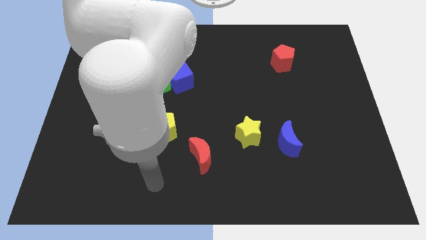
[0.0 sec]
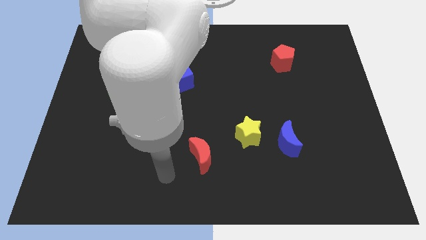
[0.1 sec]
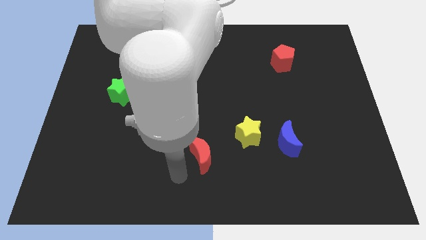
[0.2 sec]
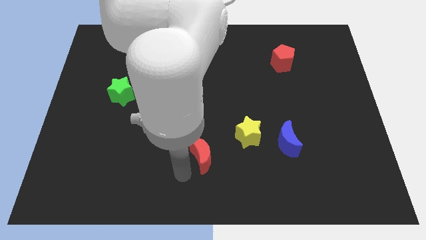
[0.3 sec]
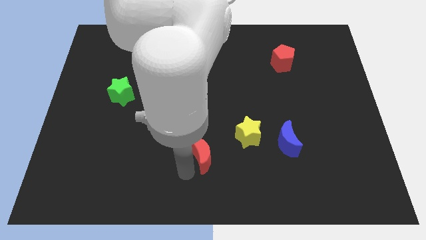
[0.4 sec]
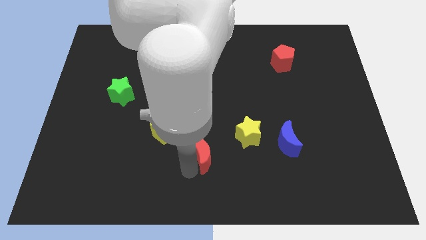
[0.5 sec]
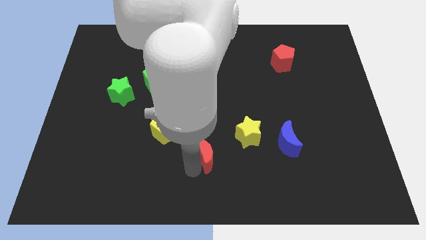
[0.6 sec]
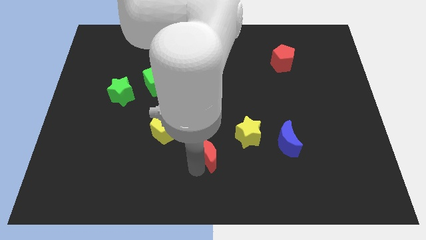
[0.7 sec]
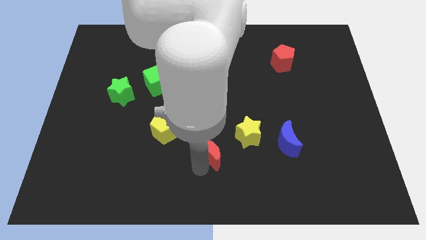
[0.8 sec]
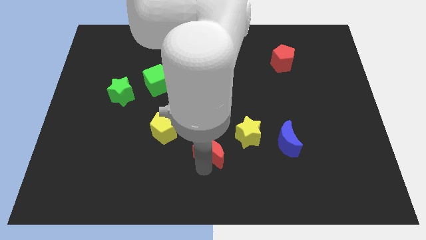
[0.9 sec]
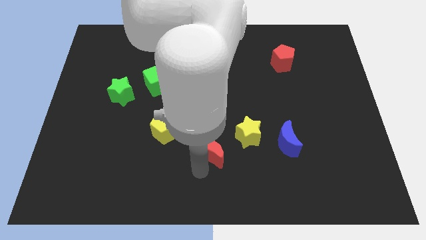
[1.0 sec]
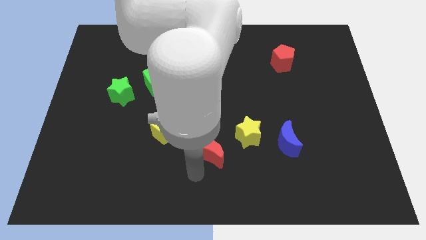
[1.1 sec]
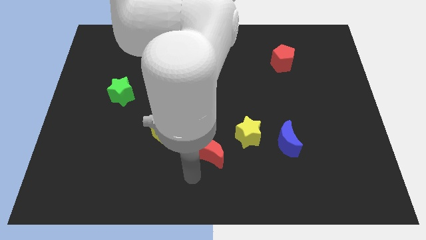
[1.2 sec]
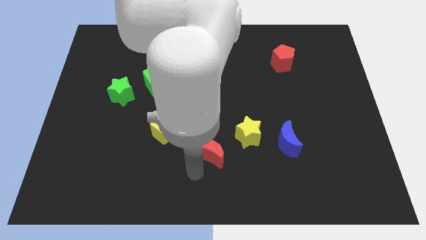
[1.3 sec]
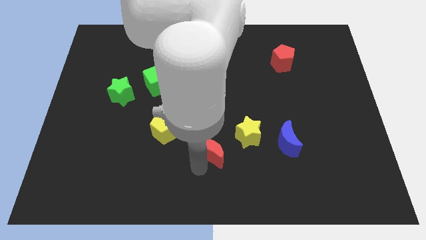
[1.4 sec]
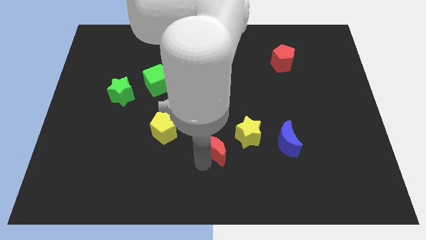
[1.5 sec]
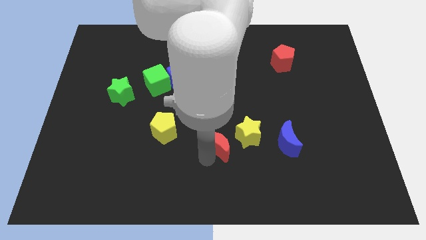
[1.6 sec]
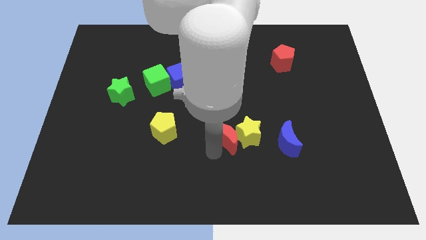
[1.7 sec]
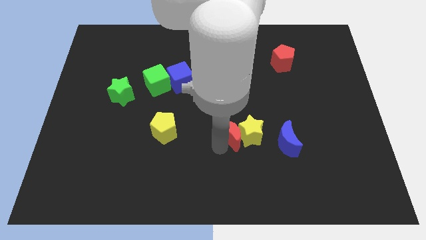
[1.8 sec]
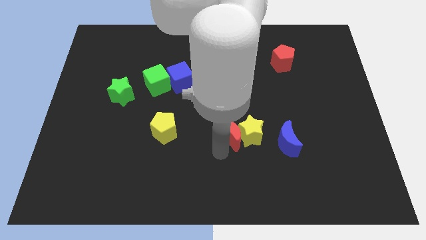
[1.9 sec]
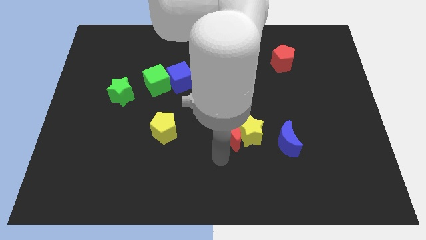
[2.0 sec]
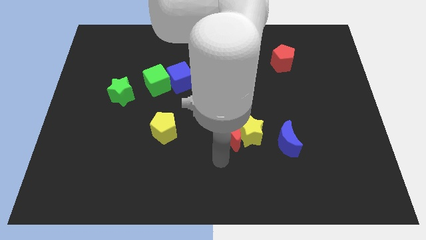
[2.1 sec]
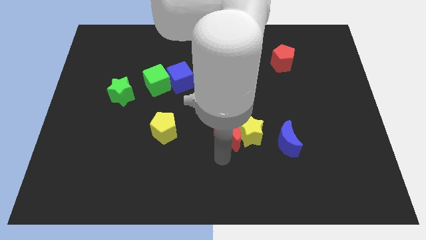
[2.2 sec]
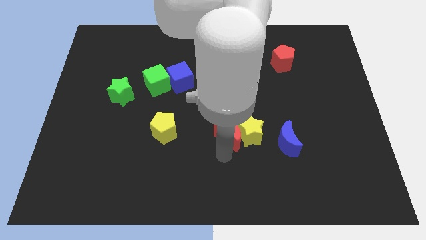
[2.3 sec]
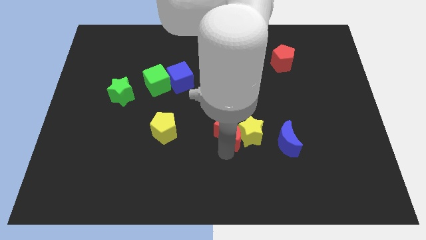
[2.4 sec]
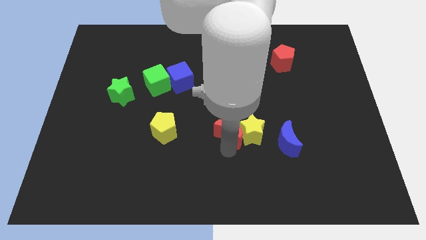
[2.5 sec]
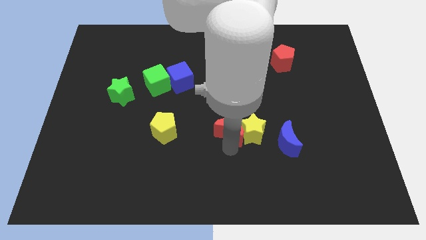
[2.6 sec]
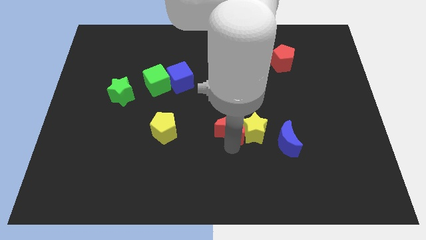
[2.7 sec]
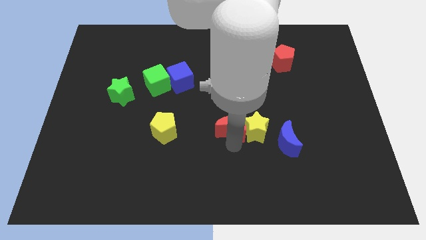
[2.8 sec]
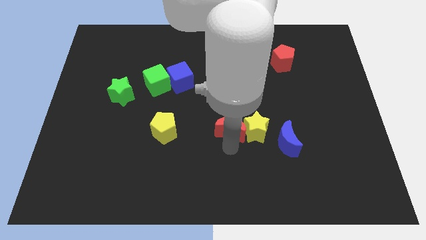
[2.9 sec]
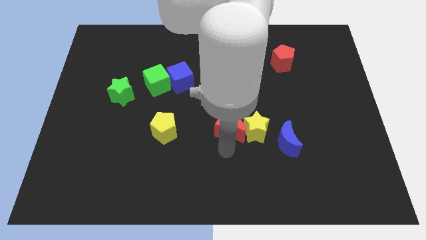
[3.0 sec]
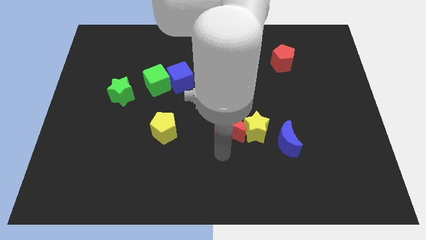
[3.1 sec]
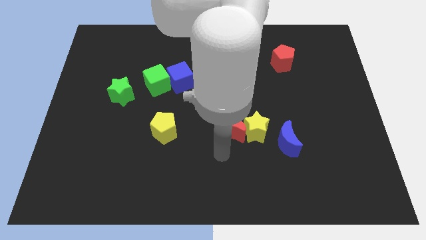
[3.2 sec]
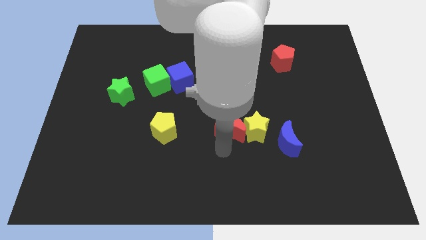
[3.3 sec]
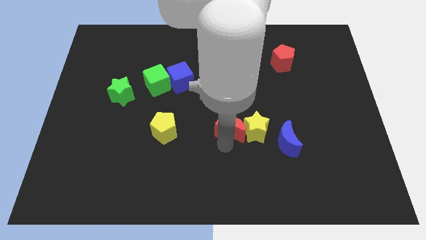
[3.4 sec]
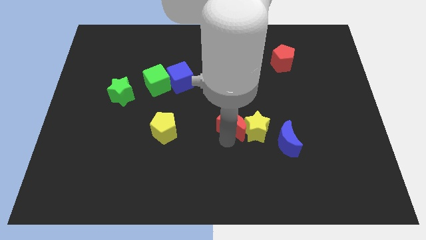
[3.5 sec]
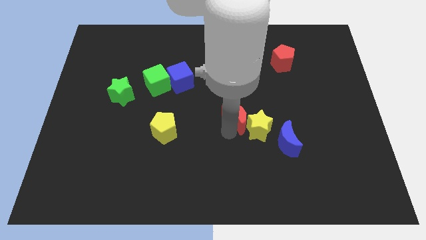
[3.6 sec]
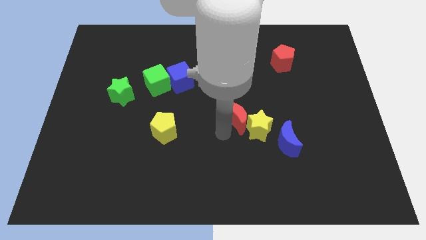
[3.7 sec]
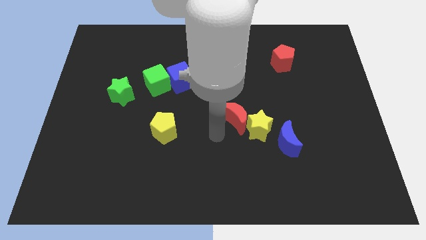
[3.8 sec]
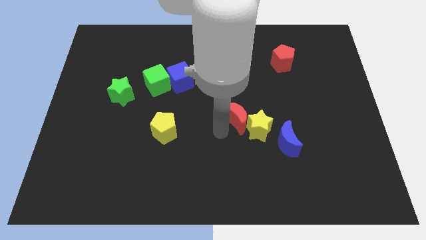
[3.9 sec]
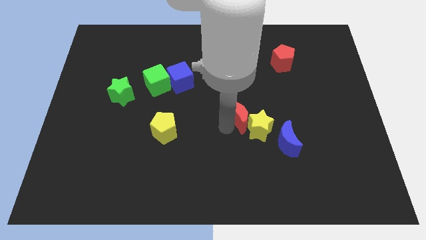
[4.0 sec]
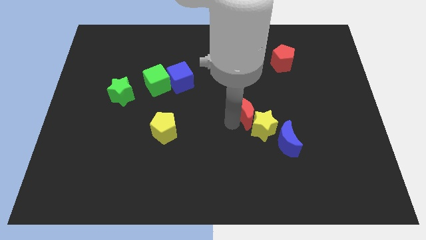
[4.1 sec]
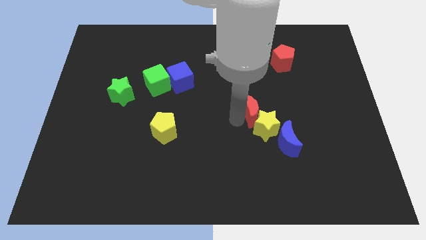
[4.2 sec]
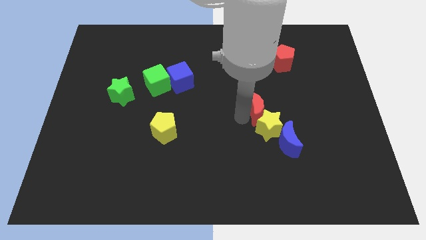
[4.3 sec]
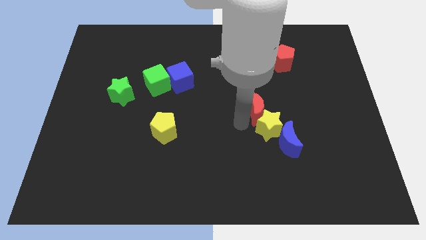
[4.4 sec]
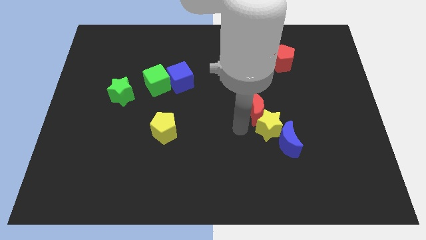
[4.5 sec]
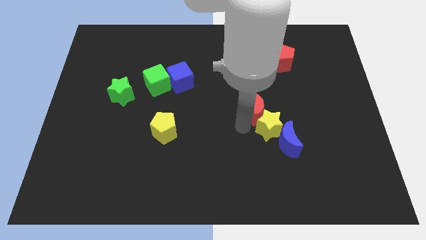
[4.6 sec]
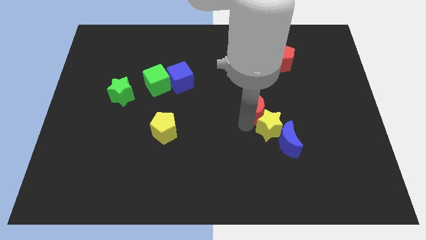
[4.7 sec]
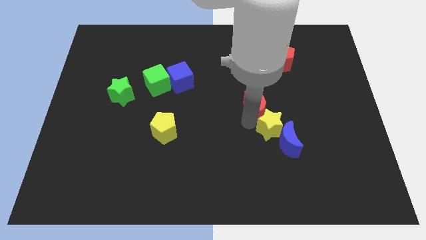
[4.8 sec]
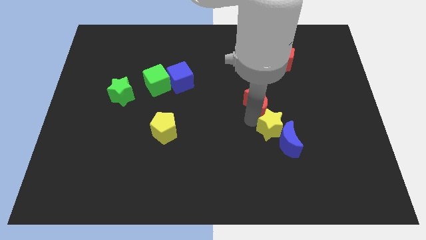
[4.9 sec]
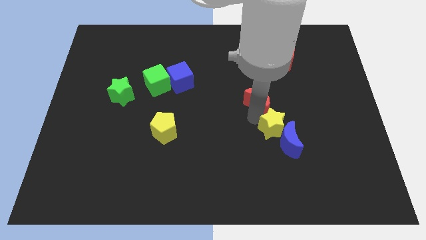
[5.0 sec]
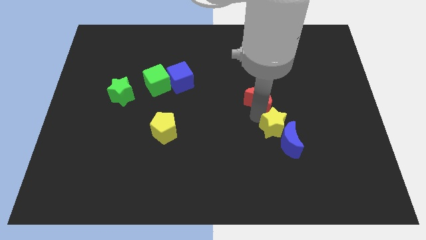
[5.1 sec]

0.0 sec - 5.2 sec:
move the red moon upwards and then to the right

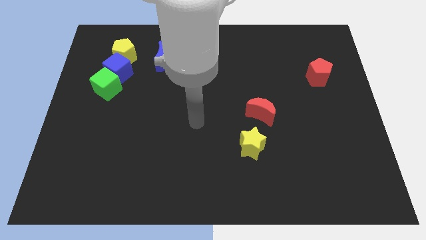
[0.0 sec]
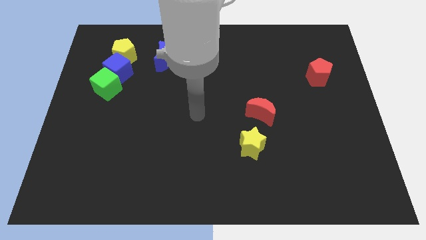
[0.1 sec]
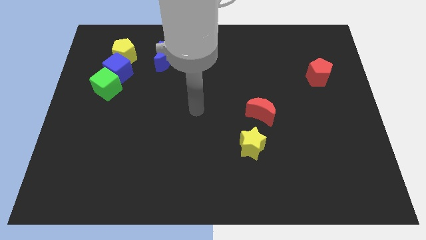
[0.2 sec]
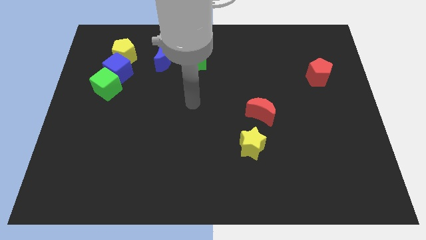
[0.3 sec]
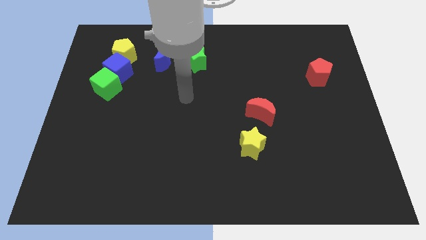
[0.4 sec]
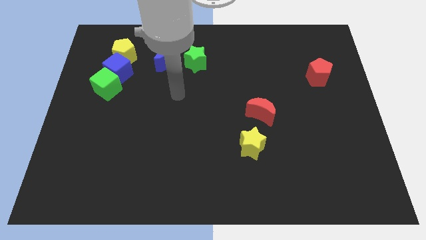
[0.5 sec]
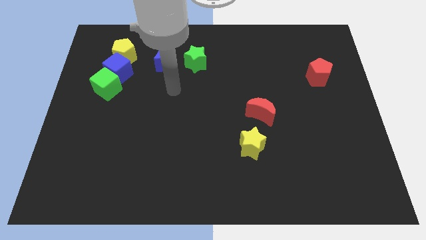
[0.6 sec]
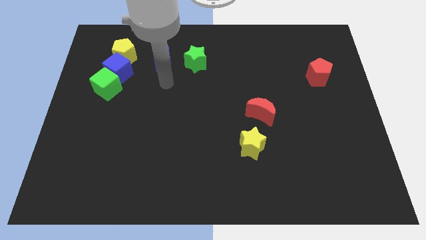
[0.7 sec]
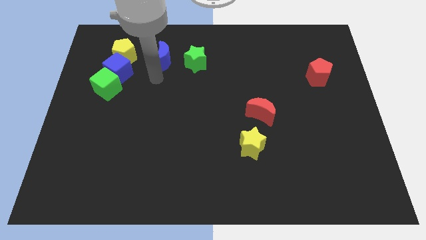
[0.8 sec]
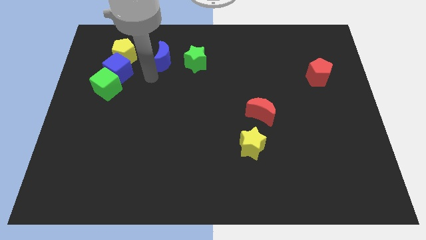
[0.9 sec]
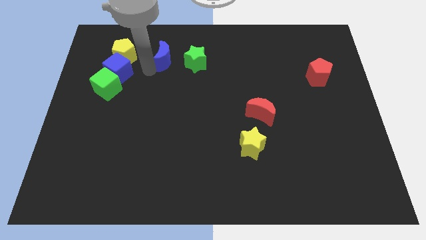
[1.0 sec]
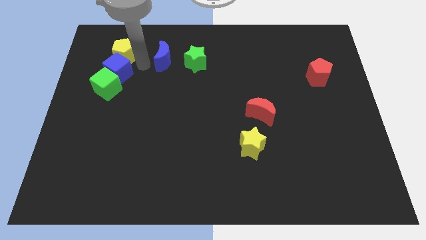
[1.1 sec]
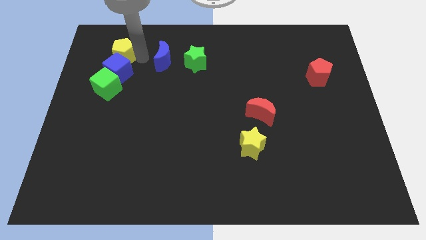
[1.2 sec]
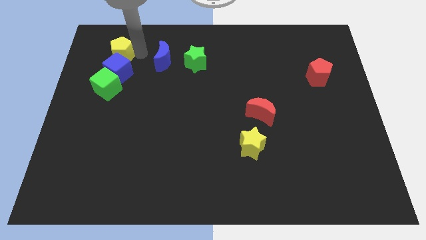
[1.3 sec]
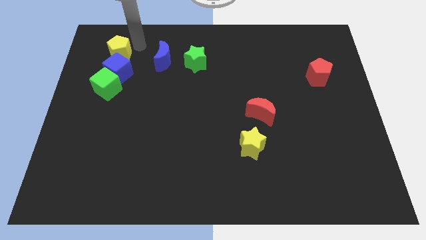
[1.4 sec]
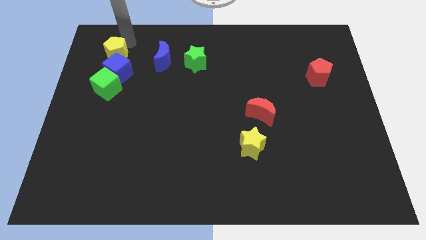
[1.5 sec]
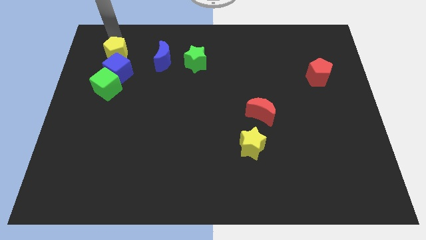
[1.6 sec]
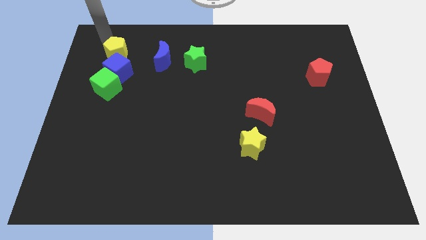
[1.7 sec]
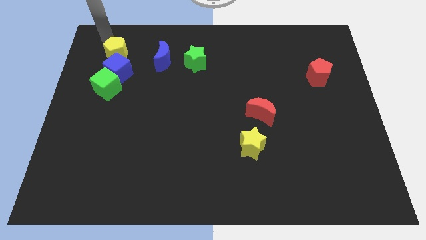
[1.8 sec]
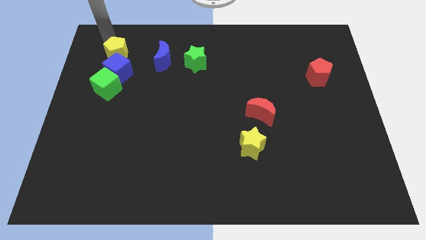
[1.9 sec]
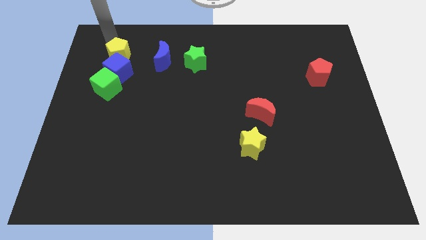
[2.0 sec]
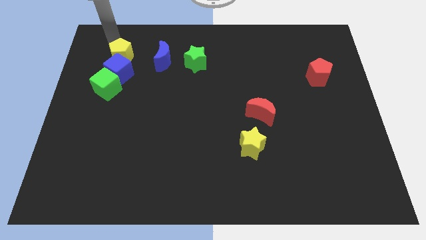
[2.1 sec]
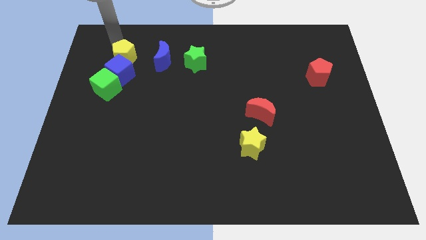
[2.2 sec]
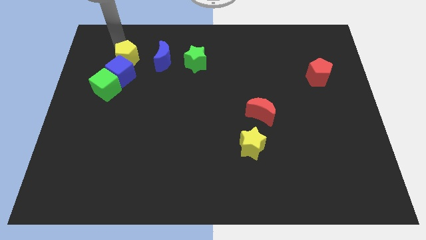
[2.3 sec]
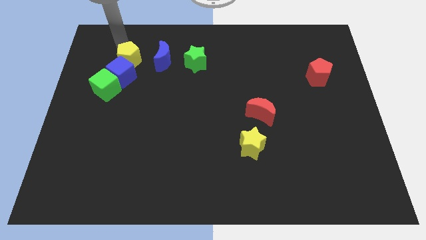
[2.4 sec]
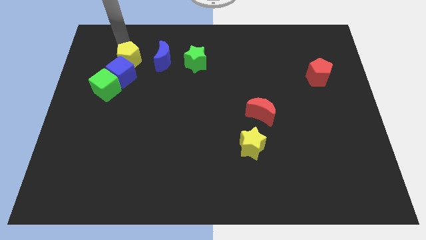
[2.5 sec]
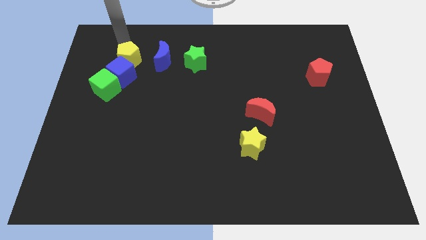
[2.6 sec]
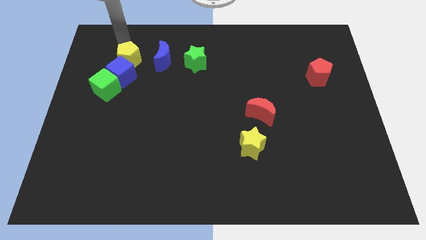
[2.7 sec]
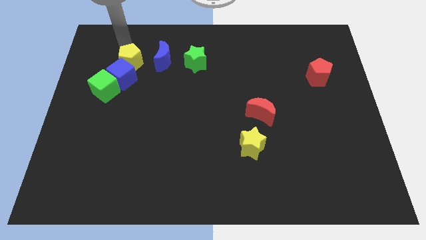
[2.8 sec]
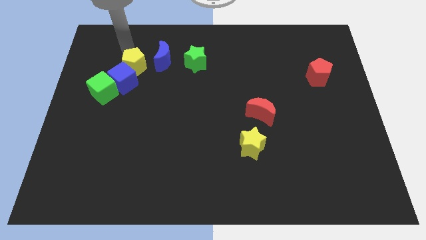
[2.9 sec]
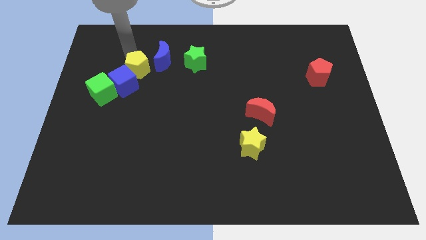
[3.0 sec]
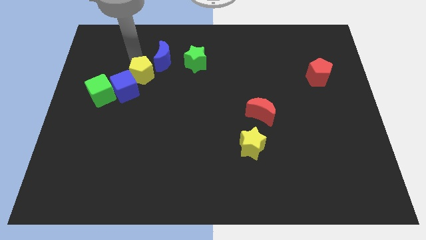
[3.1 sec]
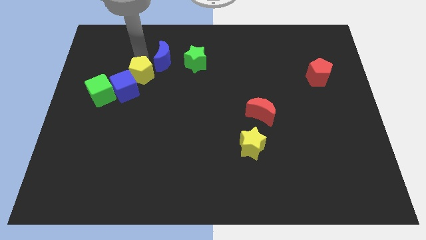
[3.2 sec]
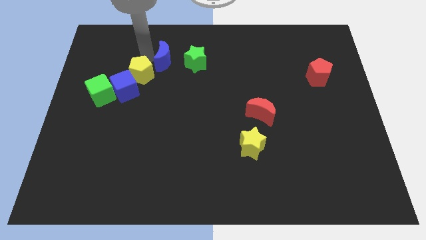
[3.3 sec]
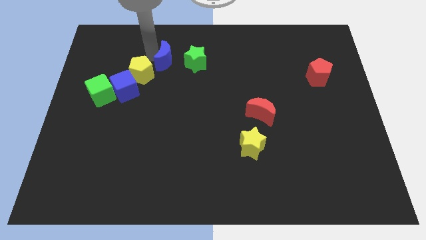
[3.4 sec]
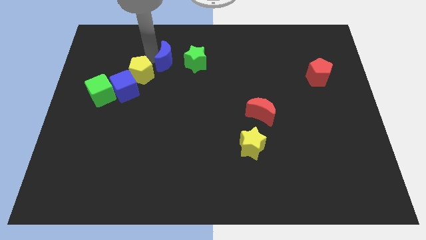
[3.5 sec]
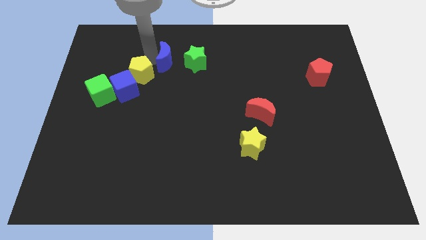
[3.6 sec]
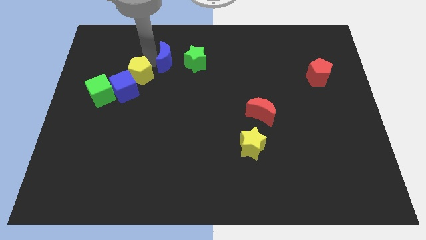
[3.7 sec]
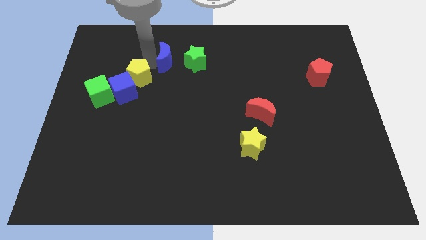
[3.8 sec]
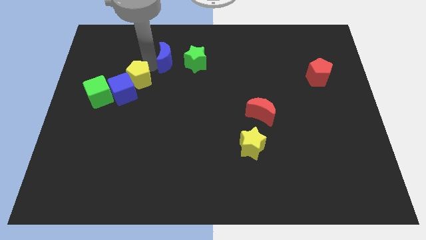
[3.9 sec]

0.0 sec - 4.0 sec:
slide the yellow pentagon down a little
